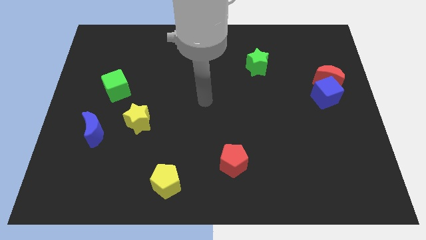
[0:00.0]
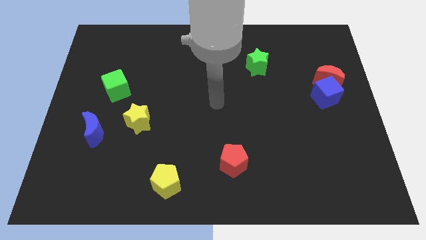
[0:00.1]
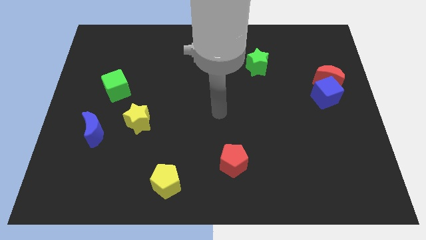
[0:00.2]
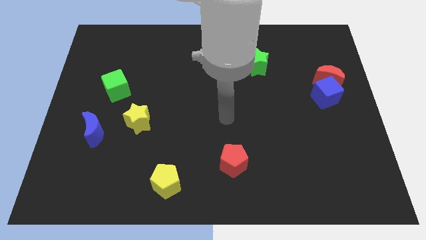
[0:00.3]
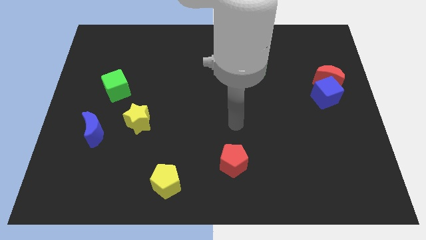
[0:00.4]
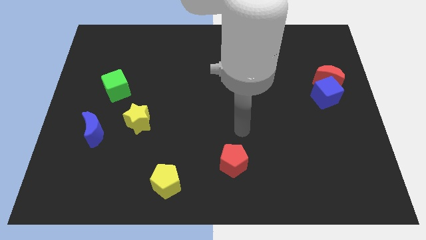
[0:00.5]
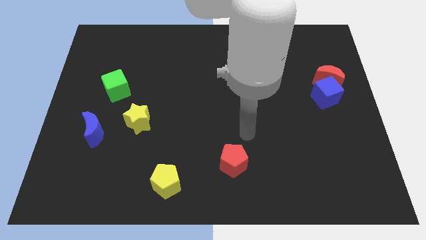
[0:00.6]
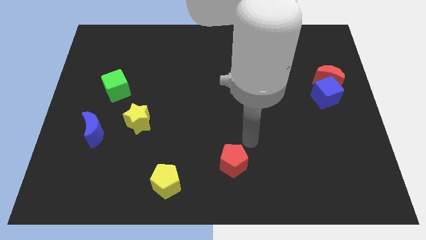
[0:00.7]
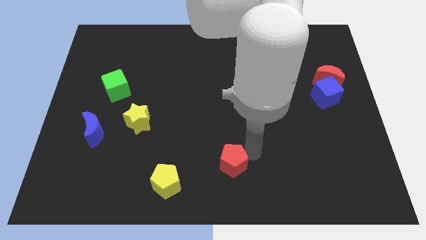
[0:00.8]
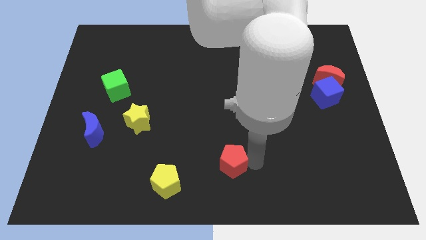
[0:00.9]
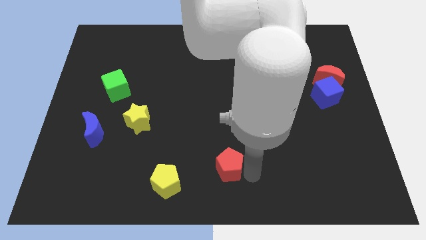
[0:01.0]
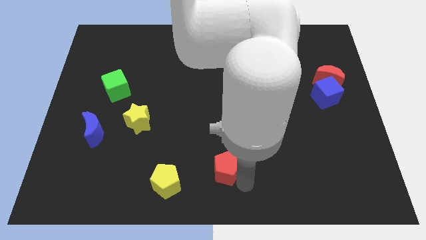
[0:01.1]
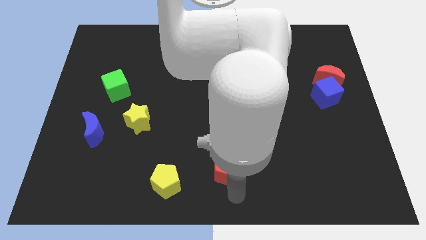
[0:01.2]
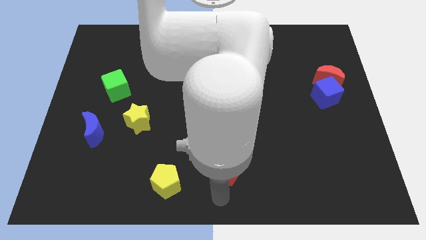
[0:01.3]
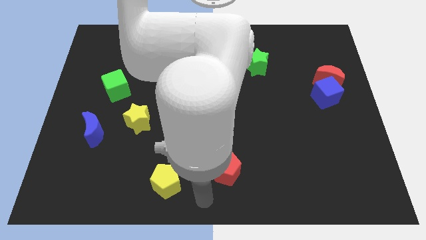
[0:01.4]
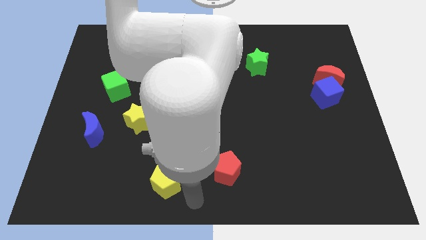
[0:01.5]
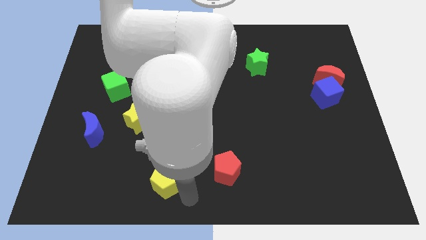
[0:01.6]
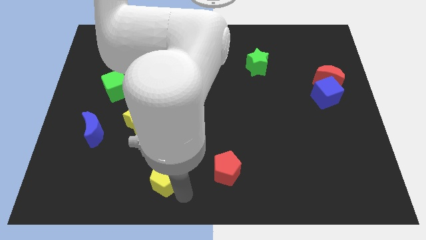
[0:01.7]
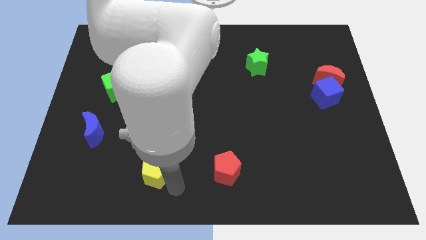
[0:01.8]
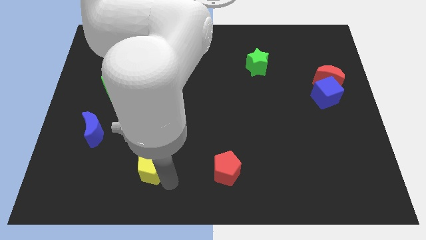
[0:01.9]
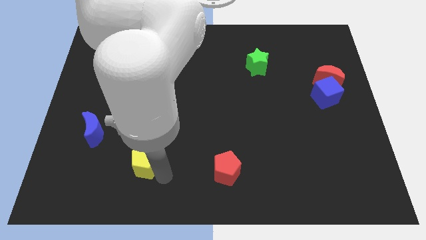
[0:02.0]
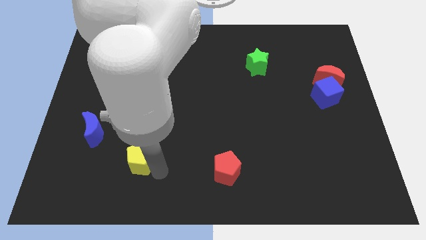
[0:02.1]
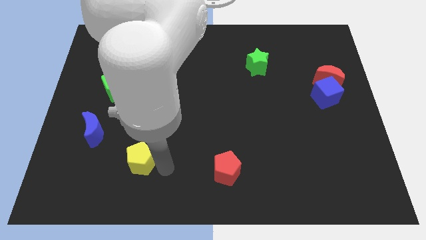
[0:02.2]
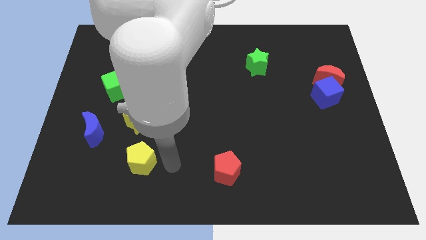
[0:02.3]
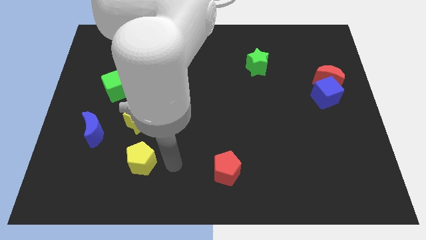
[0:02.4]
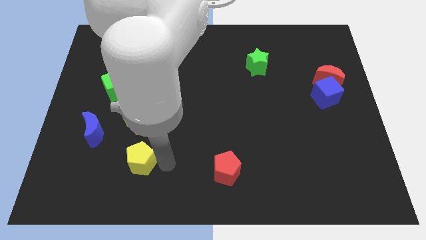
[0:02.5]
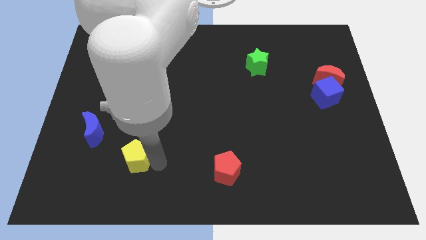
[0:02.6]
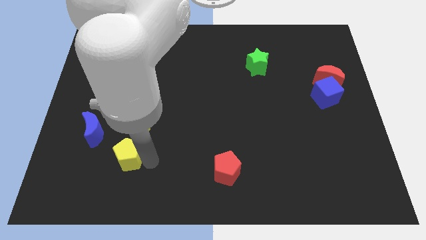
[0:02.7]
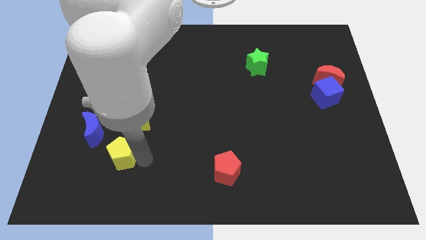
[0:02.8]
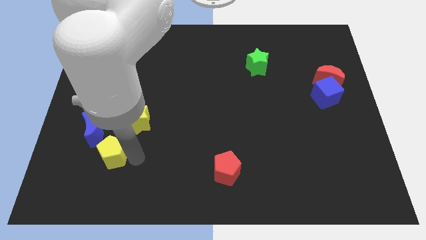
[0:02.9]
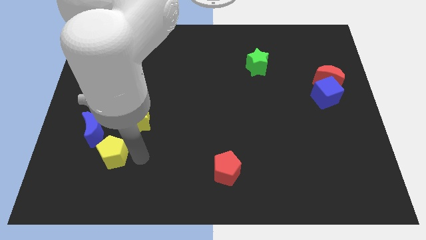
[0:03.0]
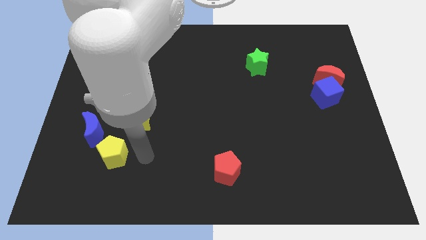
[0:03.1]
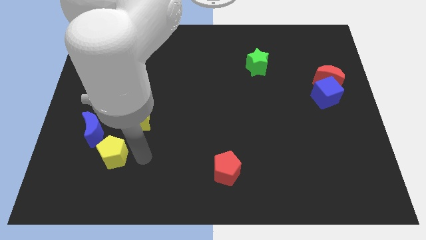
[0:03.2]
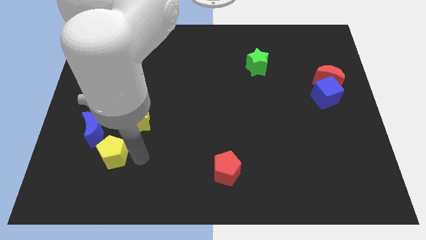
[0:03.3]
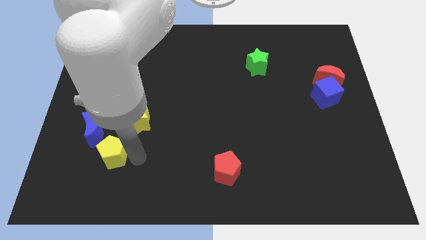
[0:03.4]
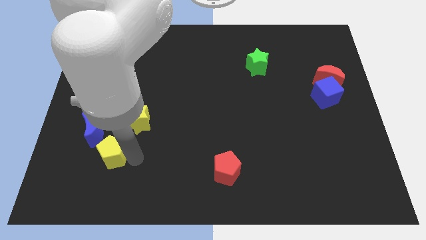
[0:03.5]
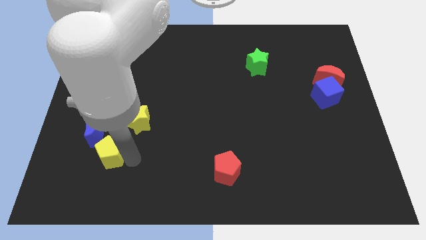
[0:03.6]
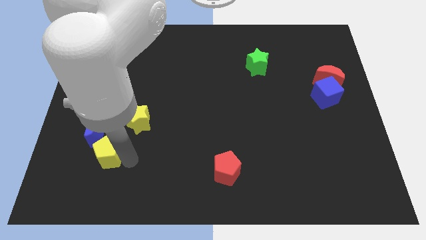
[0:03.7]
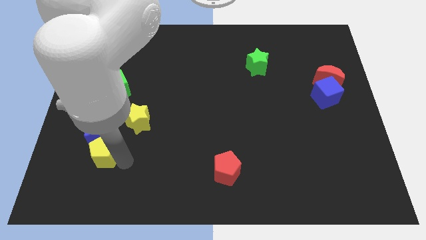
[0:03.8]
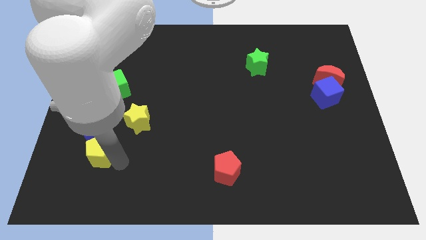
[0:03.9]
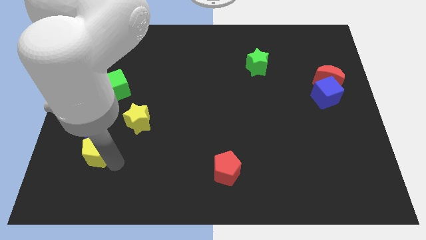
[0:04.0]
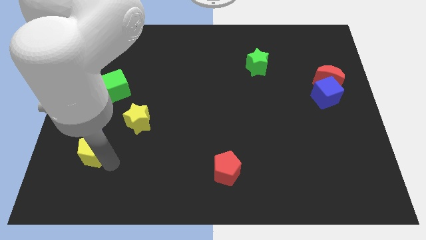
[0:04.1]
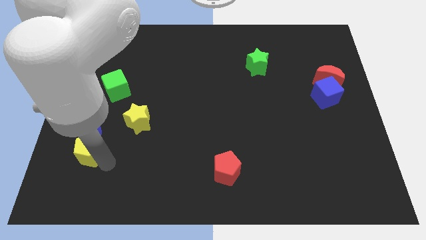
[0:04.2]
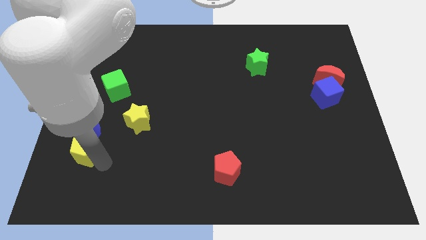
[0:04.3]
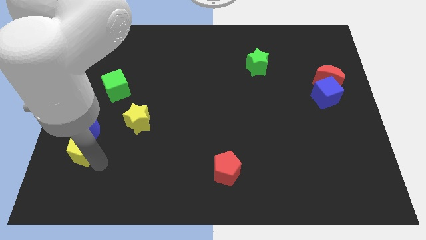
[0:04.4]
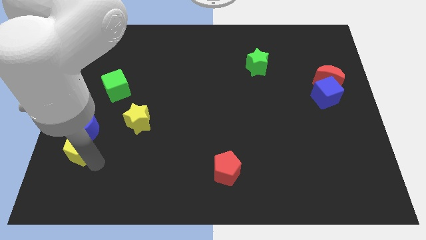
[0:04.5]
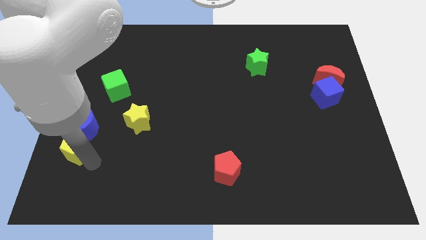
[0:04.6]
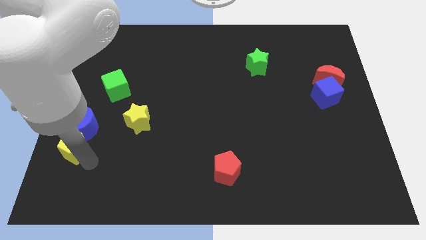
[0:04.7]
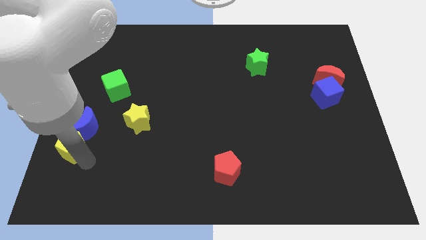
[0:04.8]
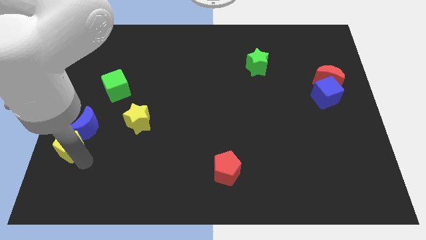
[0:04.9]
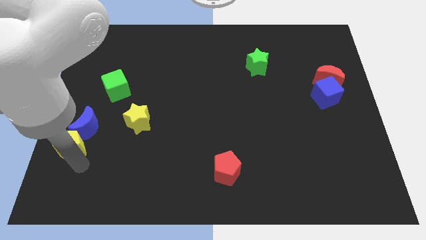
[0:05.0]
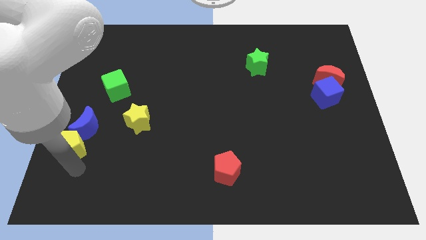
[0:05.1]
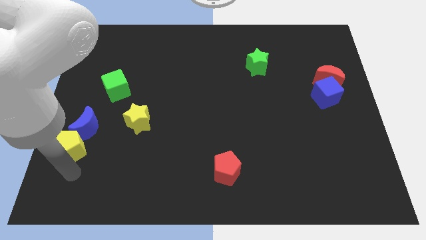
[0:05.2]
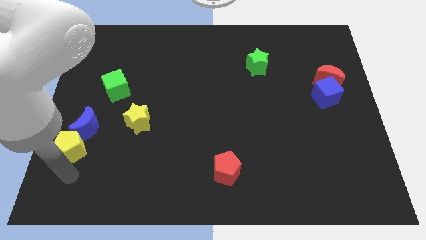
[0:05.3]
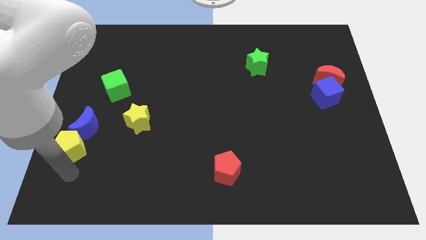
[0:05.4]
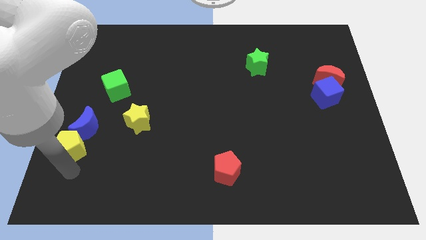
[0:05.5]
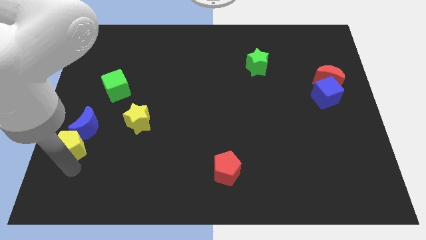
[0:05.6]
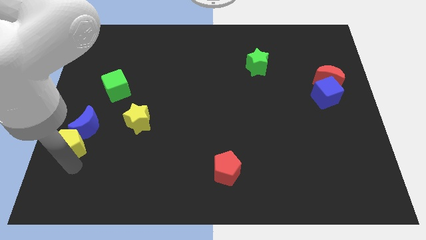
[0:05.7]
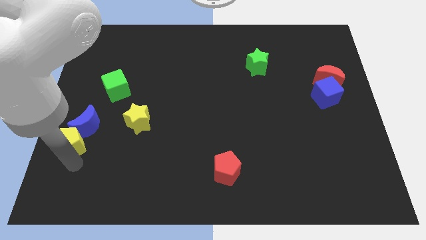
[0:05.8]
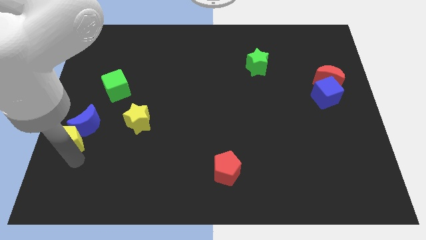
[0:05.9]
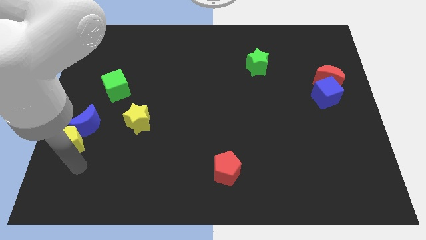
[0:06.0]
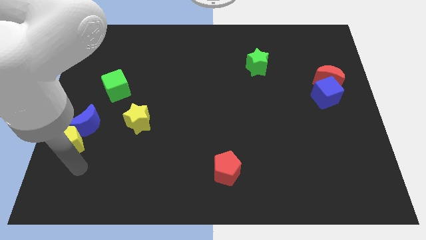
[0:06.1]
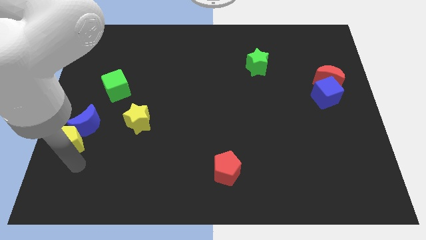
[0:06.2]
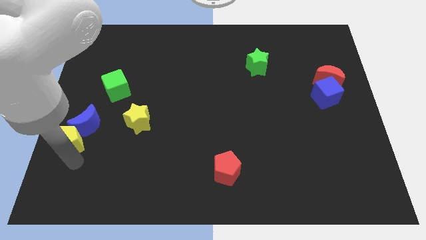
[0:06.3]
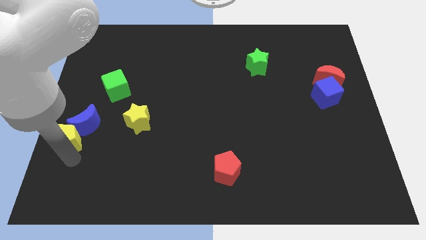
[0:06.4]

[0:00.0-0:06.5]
push the yellow pentagon to the left side of the board
